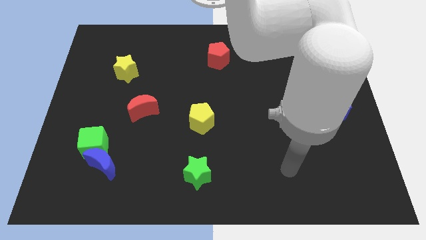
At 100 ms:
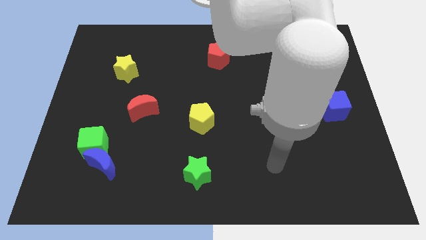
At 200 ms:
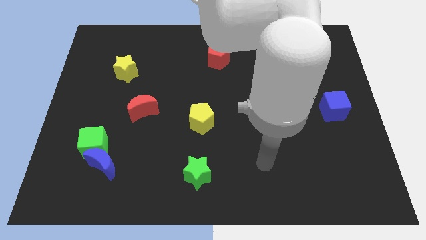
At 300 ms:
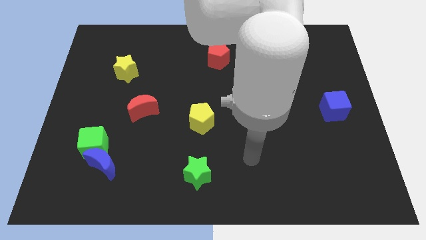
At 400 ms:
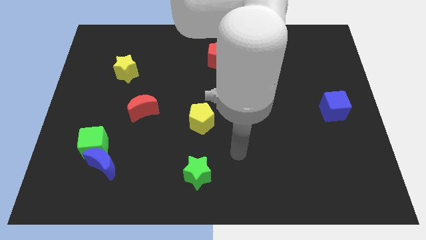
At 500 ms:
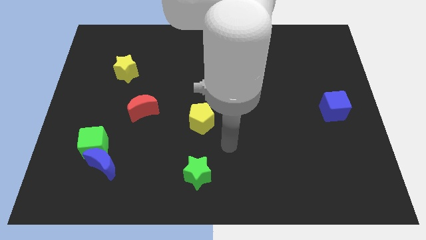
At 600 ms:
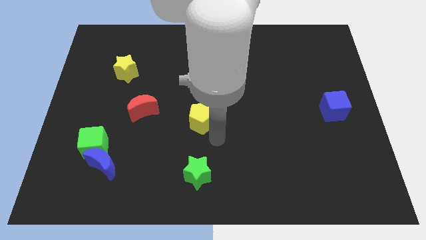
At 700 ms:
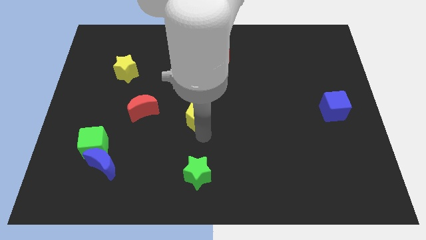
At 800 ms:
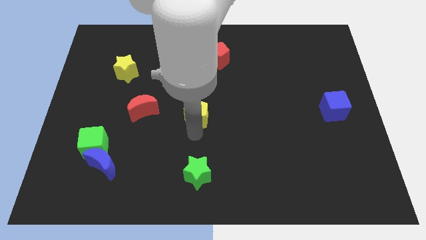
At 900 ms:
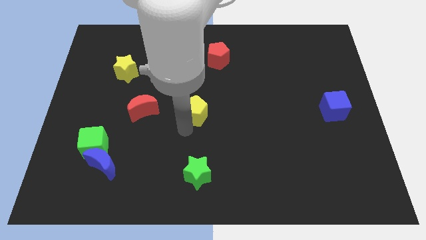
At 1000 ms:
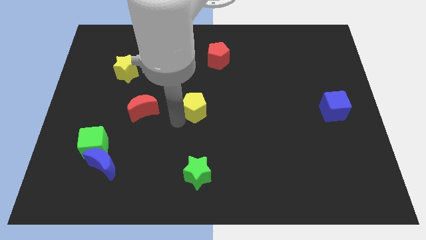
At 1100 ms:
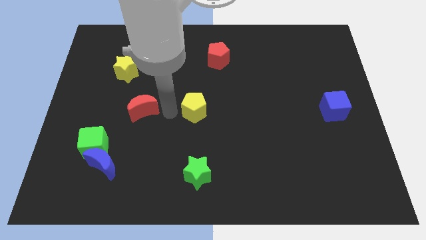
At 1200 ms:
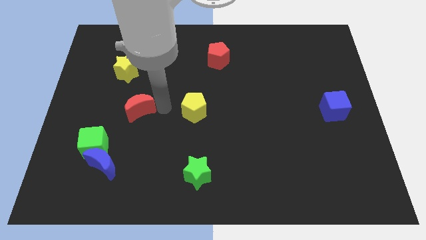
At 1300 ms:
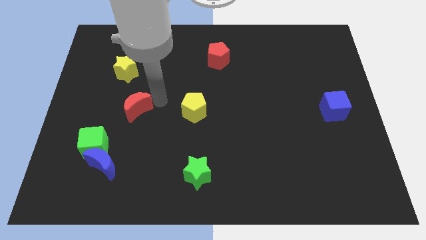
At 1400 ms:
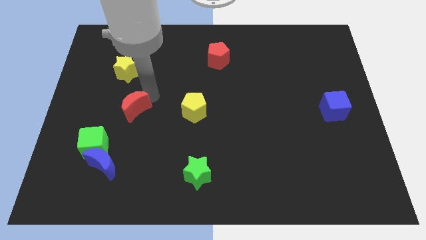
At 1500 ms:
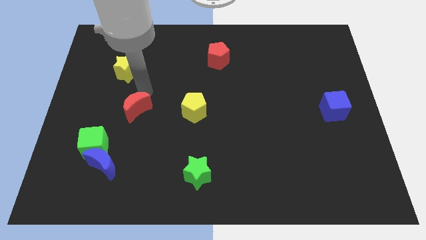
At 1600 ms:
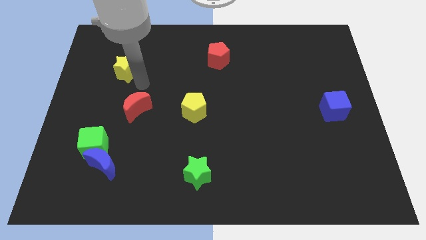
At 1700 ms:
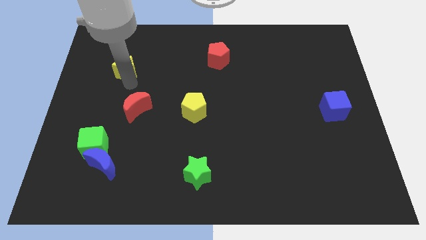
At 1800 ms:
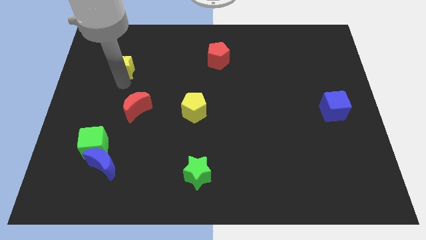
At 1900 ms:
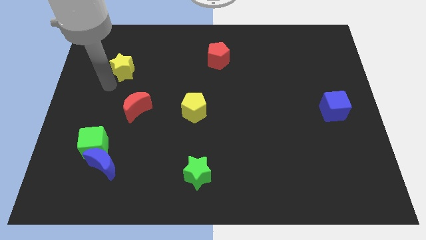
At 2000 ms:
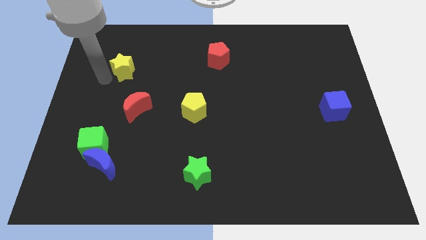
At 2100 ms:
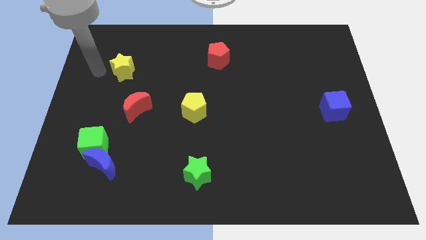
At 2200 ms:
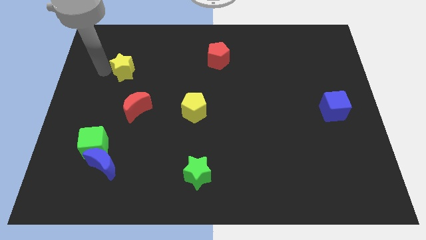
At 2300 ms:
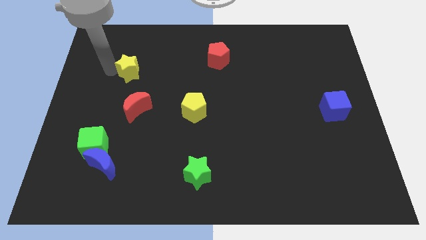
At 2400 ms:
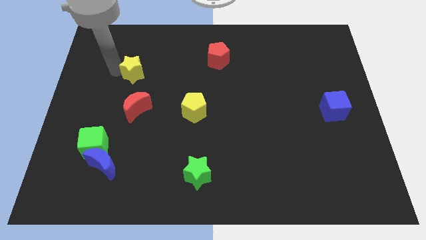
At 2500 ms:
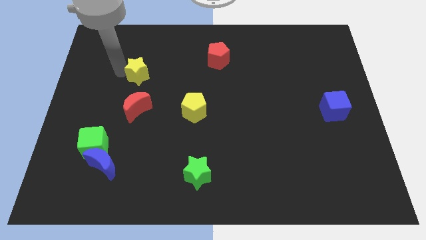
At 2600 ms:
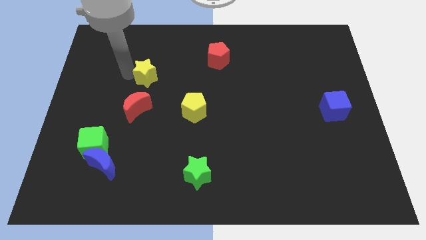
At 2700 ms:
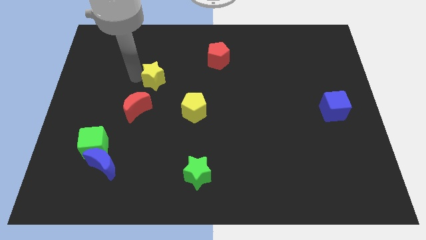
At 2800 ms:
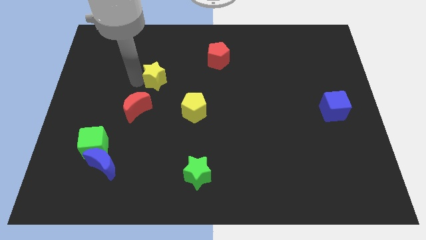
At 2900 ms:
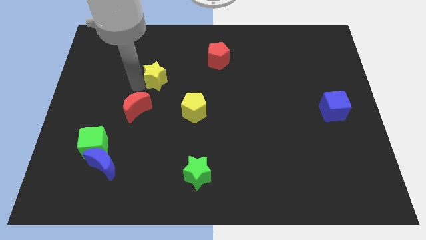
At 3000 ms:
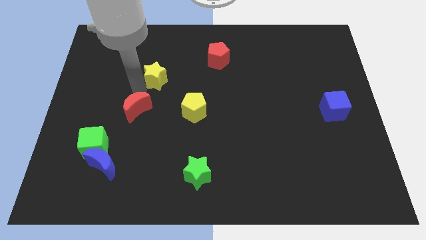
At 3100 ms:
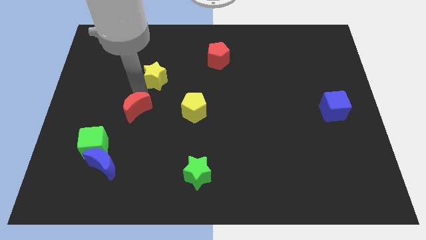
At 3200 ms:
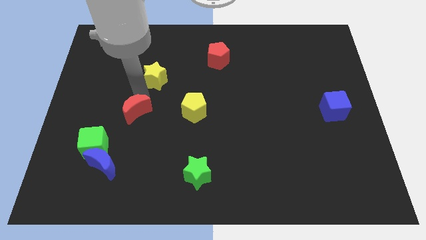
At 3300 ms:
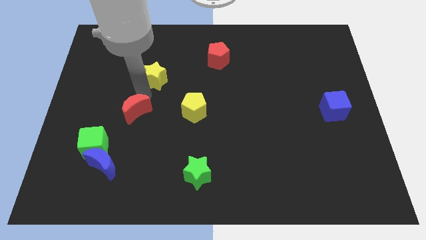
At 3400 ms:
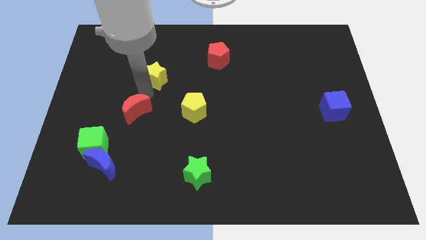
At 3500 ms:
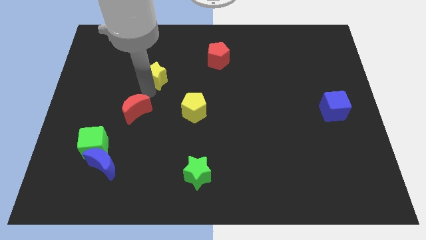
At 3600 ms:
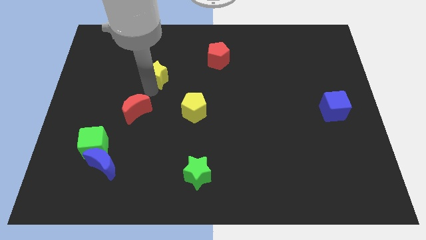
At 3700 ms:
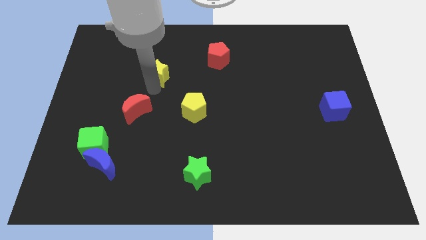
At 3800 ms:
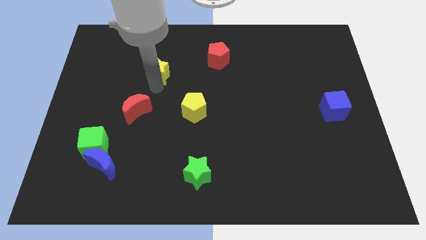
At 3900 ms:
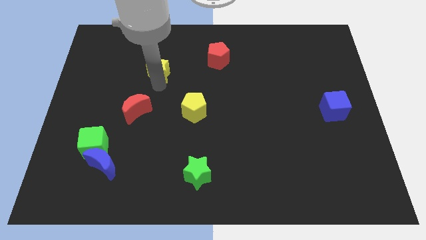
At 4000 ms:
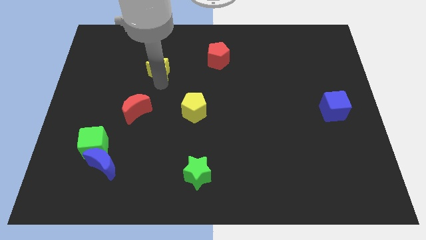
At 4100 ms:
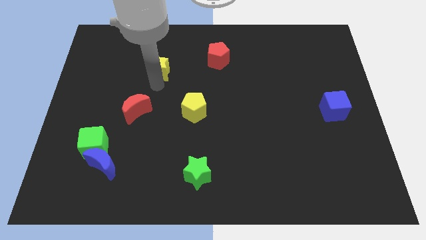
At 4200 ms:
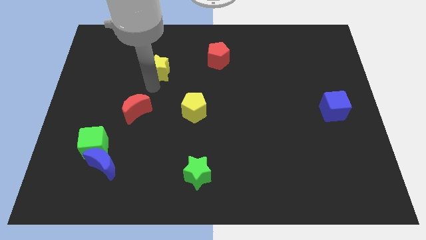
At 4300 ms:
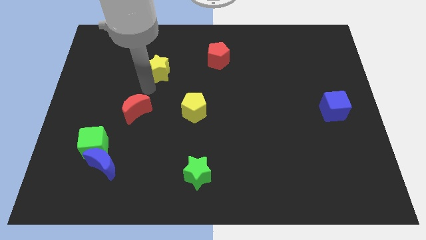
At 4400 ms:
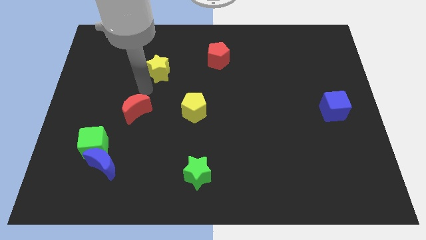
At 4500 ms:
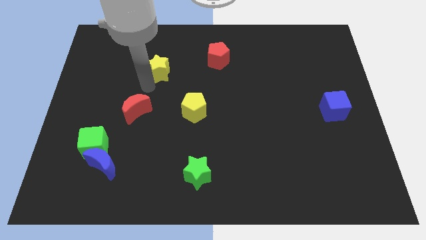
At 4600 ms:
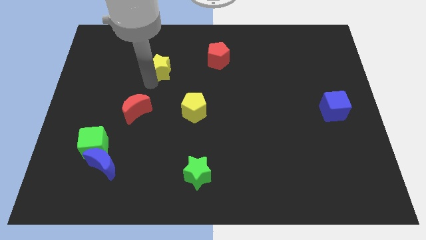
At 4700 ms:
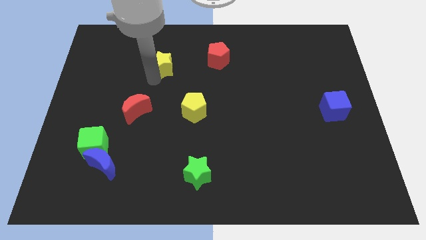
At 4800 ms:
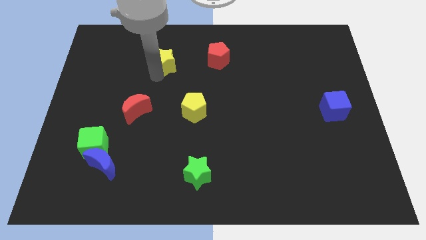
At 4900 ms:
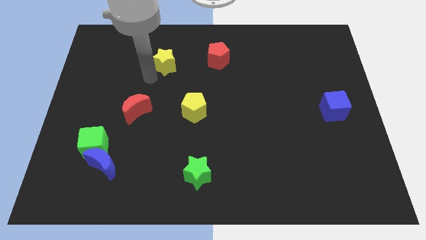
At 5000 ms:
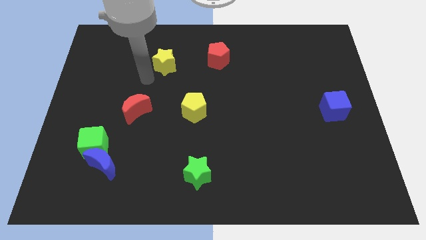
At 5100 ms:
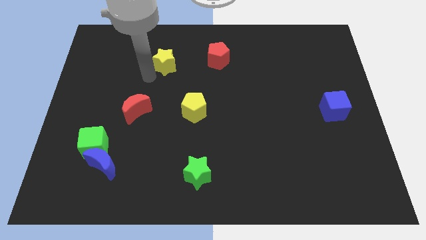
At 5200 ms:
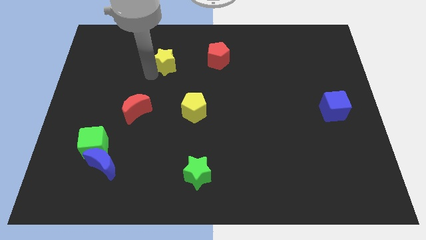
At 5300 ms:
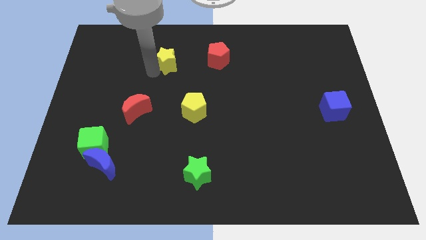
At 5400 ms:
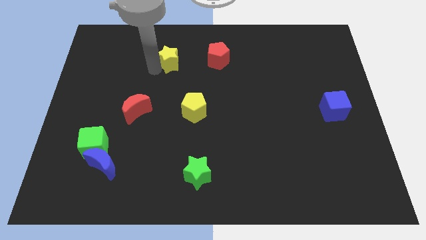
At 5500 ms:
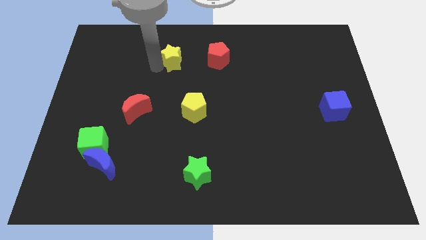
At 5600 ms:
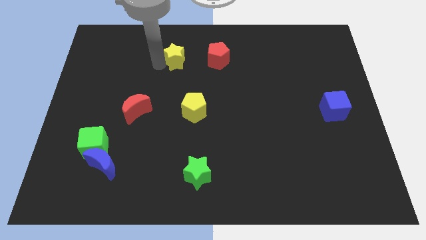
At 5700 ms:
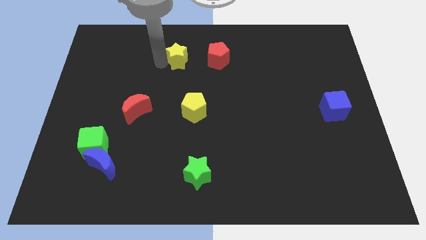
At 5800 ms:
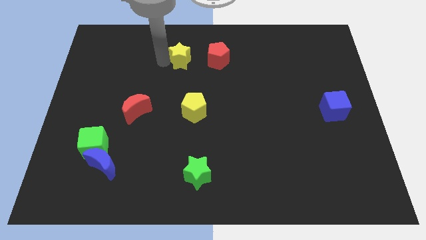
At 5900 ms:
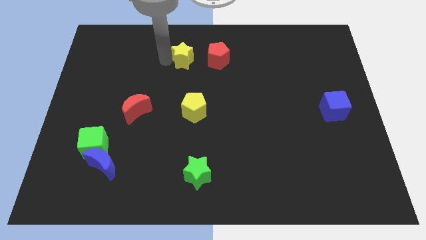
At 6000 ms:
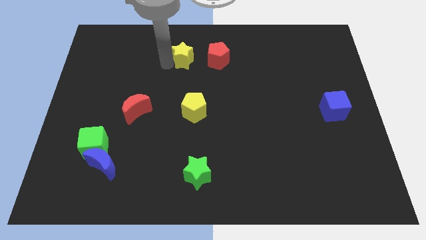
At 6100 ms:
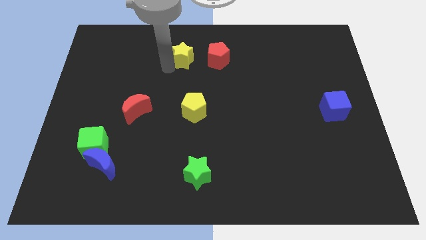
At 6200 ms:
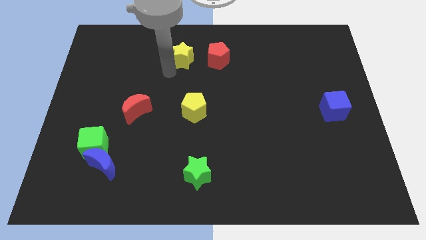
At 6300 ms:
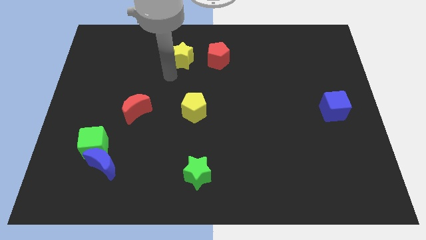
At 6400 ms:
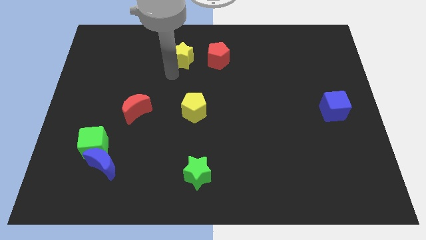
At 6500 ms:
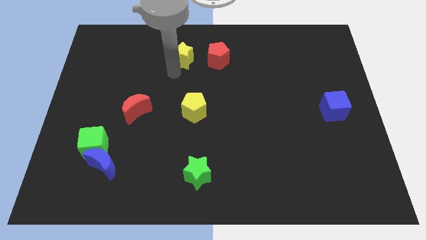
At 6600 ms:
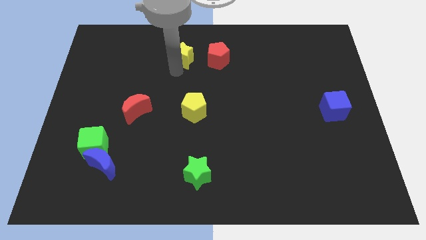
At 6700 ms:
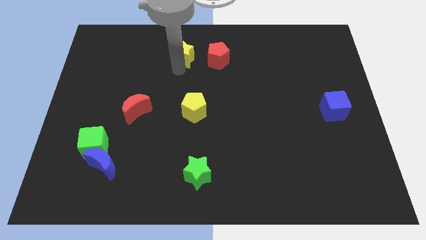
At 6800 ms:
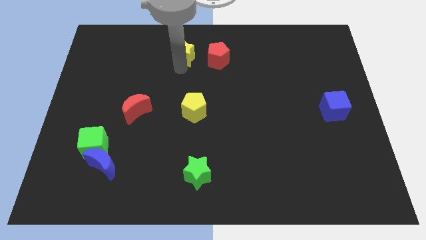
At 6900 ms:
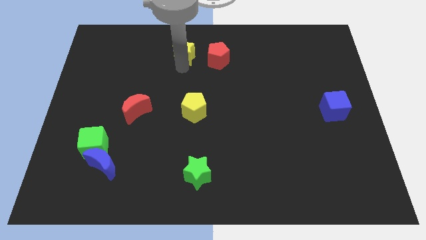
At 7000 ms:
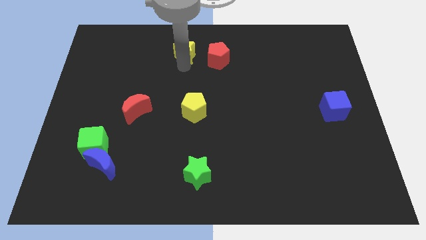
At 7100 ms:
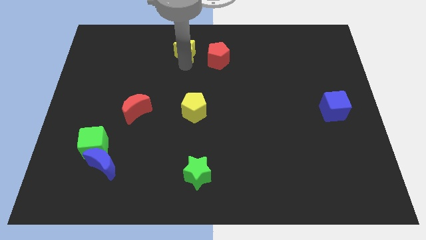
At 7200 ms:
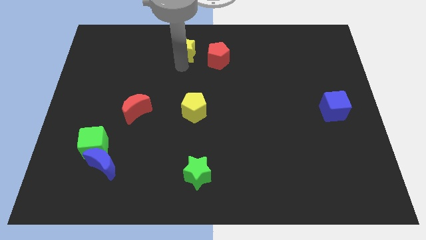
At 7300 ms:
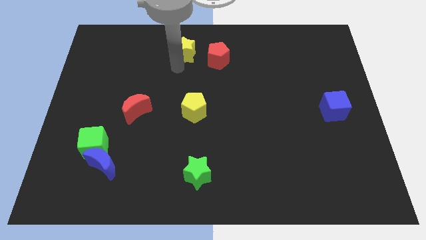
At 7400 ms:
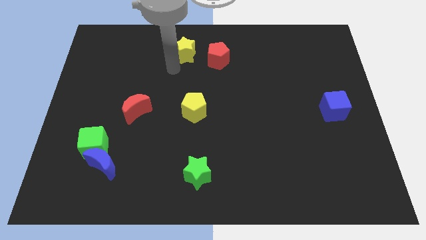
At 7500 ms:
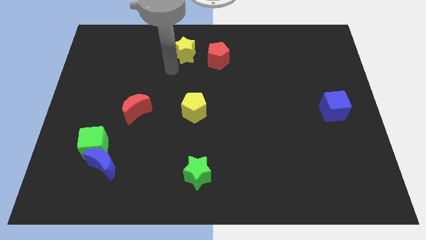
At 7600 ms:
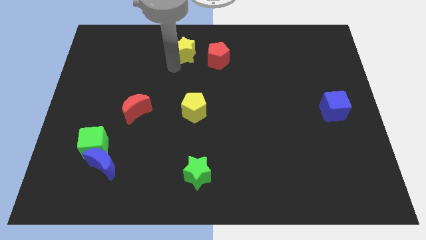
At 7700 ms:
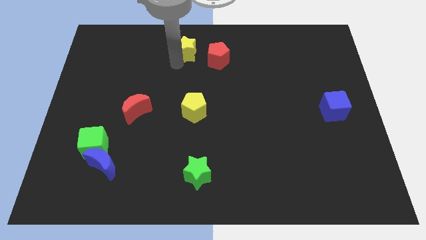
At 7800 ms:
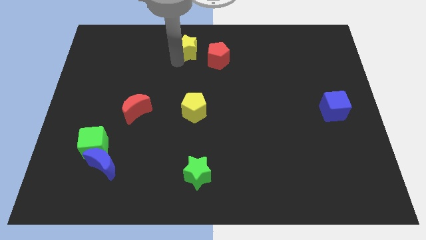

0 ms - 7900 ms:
slide the yellow star to the towards your base
